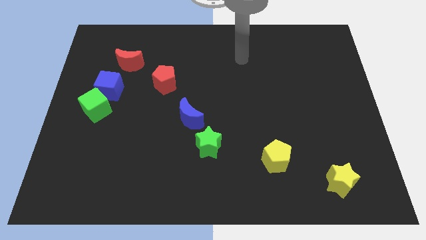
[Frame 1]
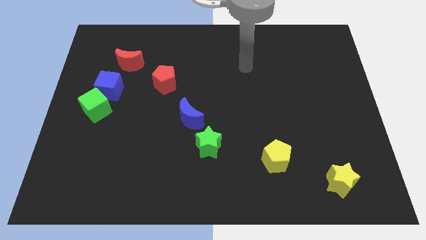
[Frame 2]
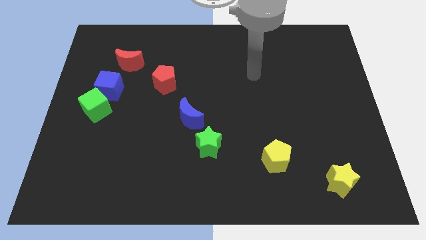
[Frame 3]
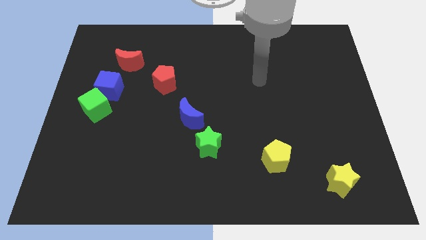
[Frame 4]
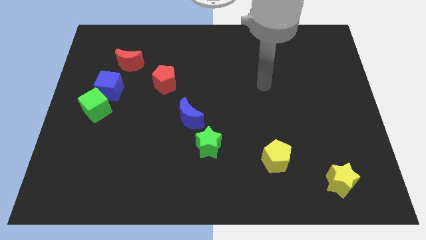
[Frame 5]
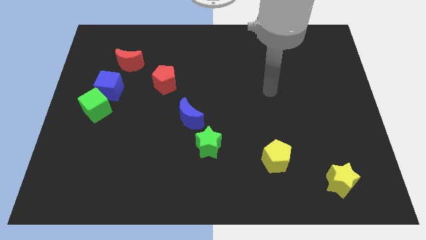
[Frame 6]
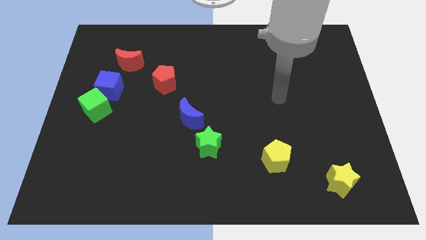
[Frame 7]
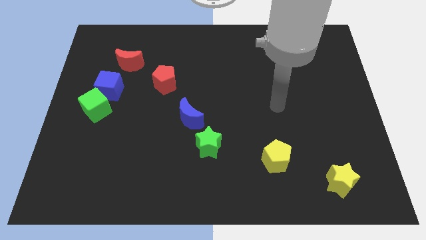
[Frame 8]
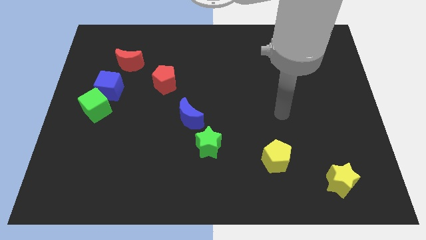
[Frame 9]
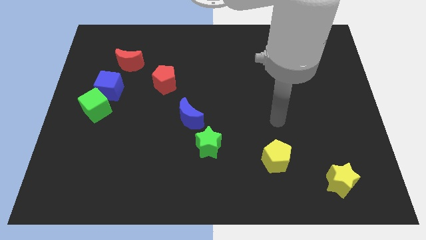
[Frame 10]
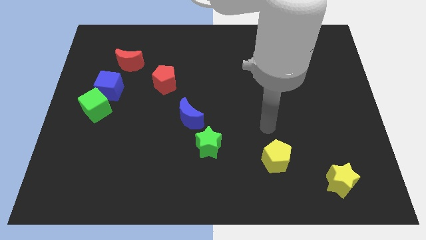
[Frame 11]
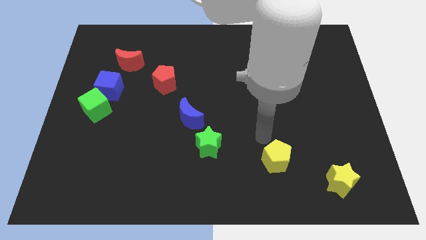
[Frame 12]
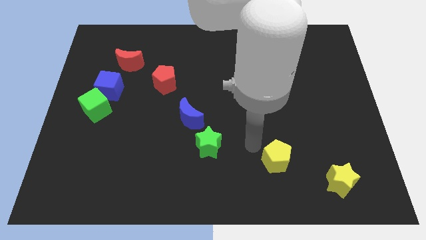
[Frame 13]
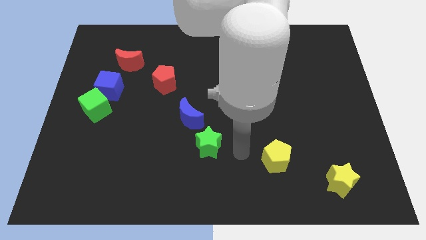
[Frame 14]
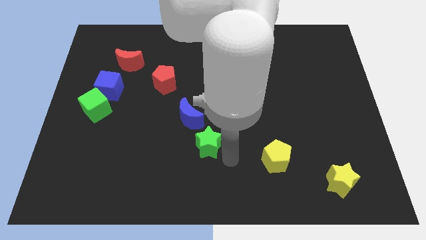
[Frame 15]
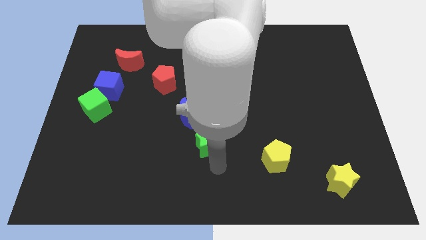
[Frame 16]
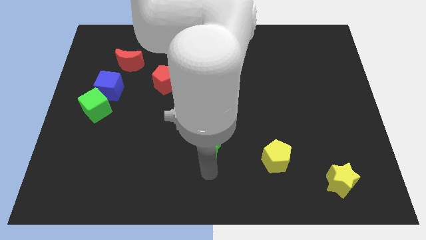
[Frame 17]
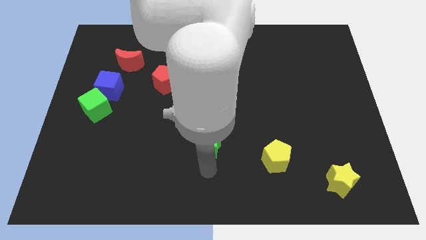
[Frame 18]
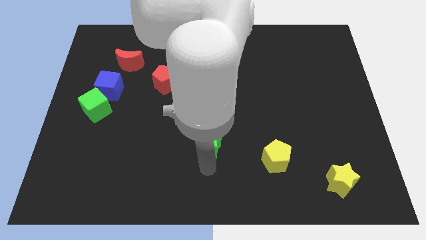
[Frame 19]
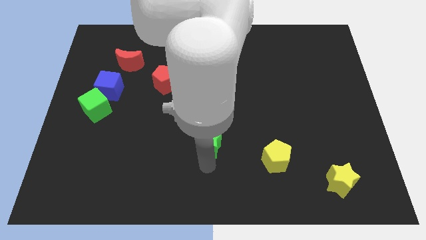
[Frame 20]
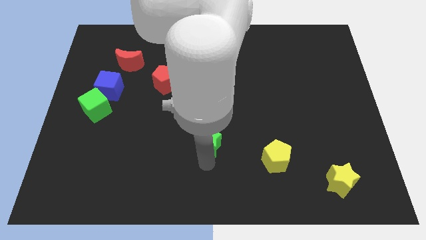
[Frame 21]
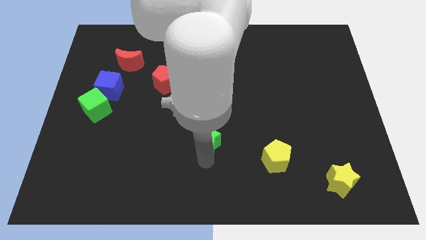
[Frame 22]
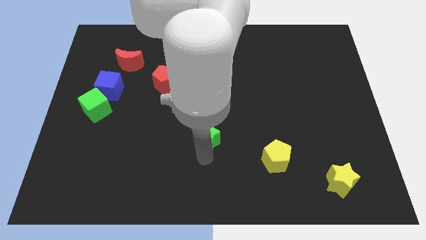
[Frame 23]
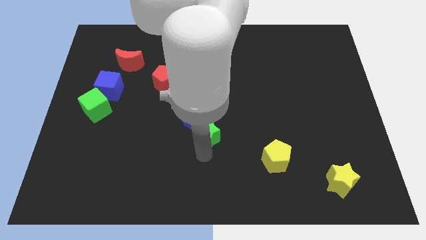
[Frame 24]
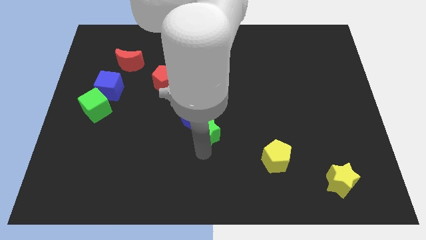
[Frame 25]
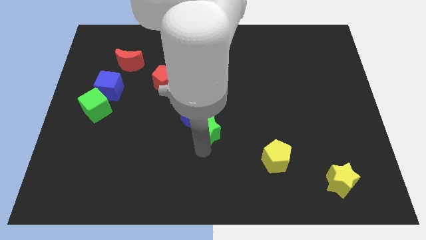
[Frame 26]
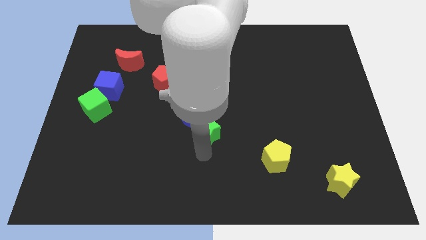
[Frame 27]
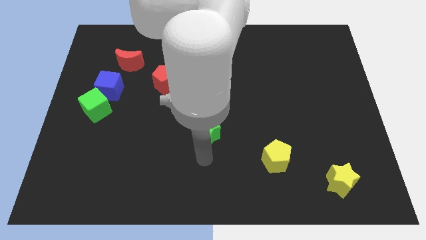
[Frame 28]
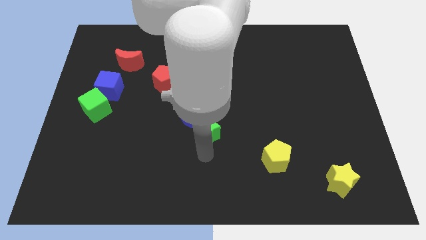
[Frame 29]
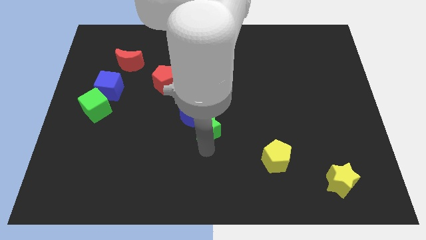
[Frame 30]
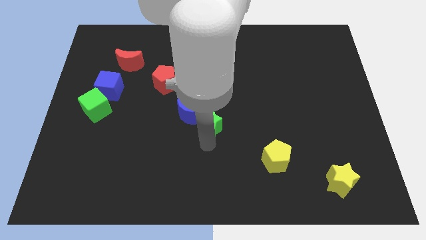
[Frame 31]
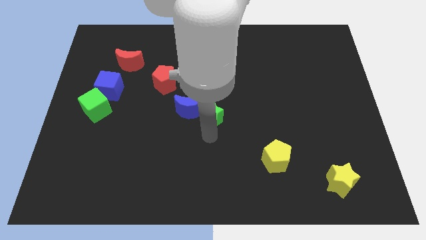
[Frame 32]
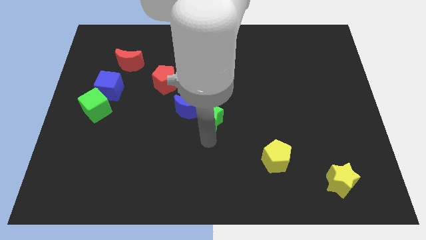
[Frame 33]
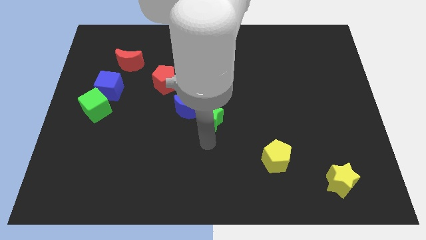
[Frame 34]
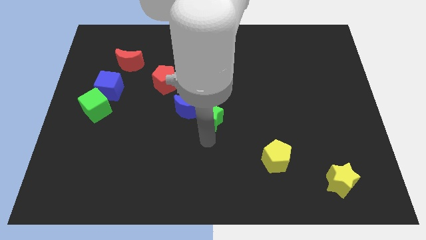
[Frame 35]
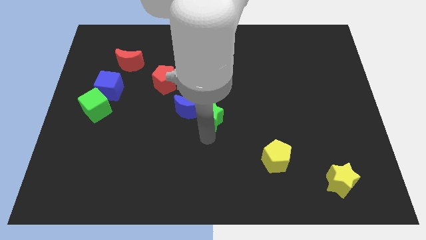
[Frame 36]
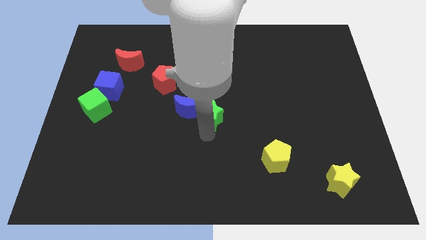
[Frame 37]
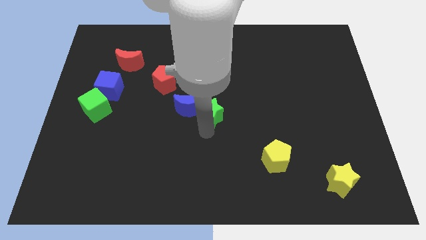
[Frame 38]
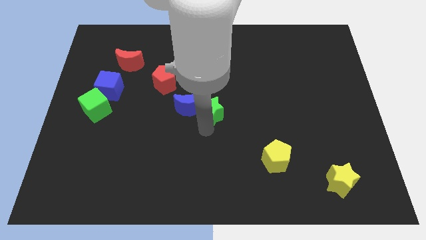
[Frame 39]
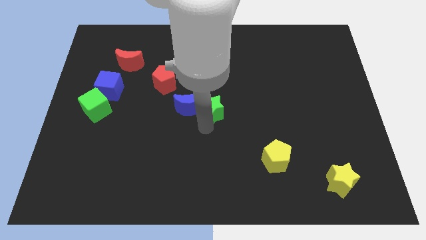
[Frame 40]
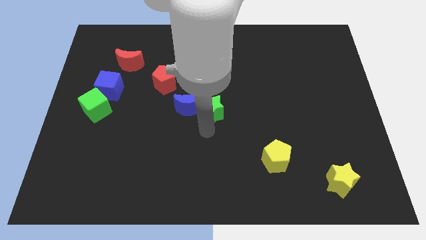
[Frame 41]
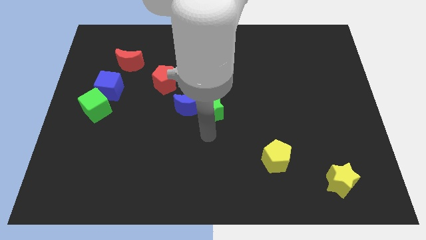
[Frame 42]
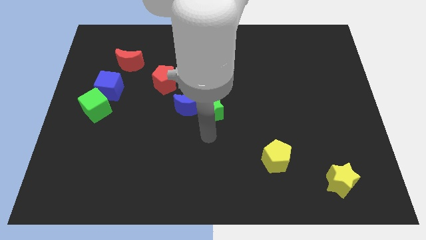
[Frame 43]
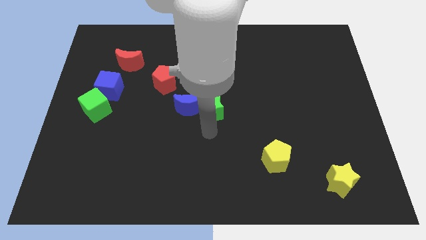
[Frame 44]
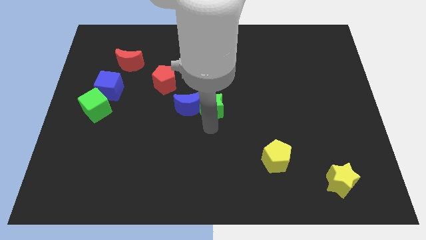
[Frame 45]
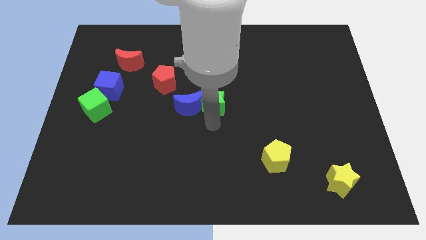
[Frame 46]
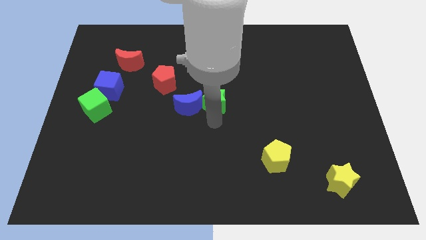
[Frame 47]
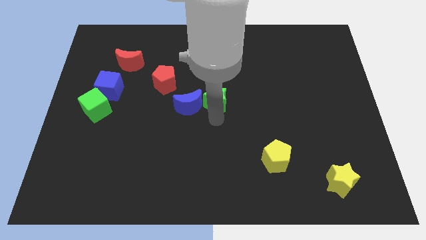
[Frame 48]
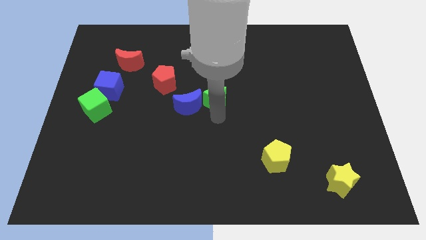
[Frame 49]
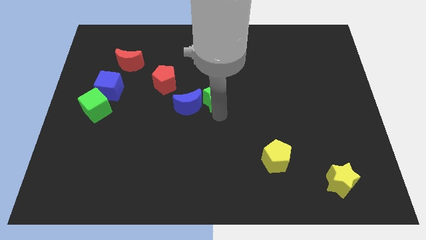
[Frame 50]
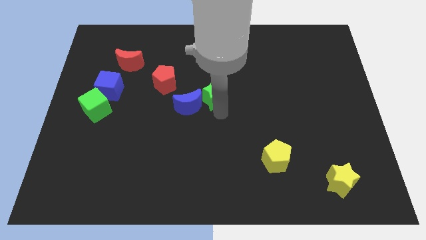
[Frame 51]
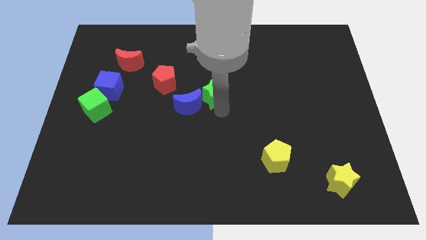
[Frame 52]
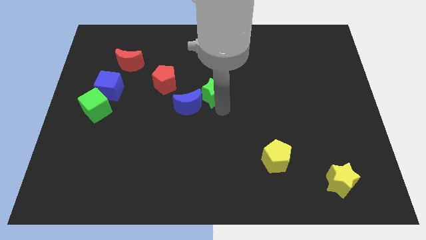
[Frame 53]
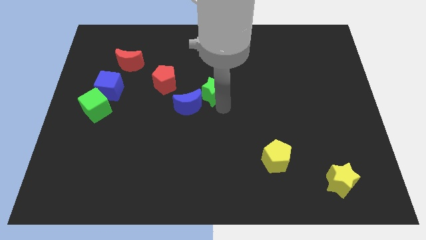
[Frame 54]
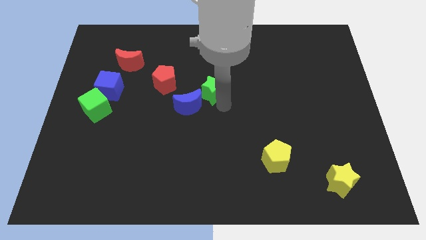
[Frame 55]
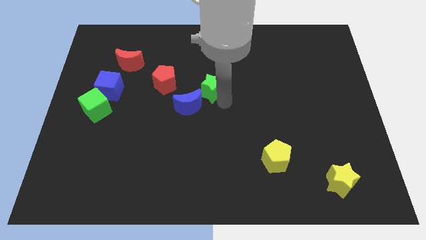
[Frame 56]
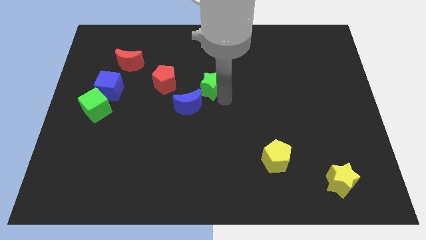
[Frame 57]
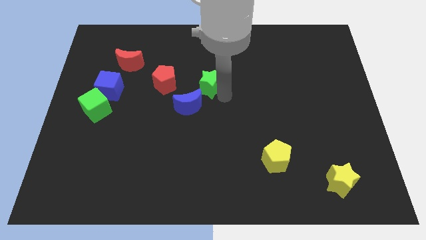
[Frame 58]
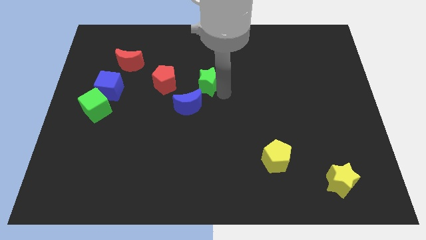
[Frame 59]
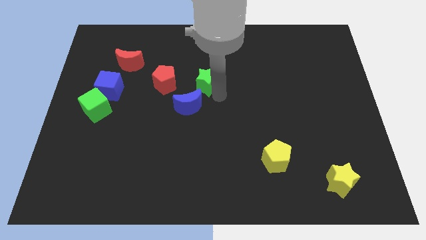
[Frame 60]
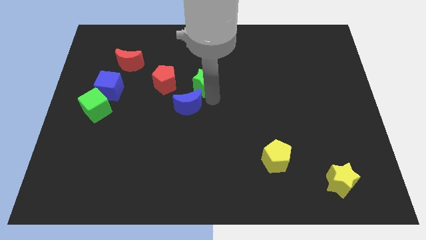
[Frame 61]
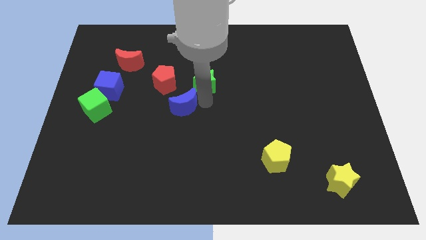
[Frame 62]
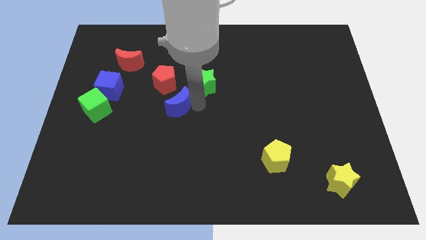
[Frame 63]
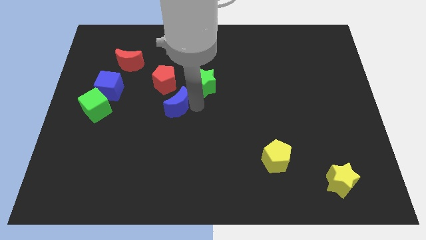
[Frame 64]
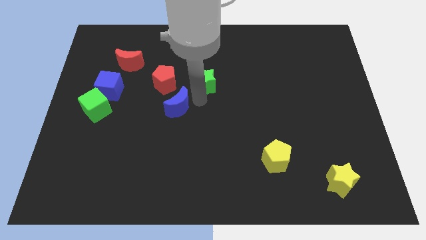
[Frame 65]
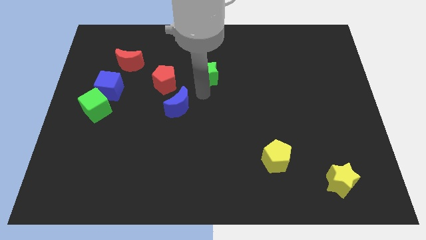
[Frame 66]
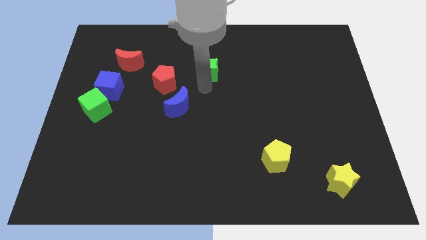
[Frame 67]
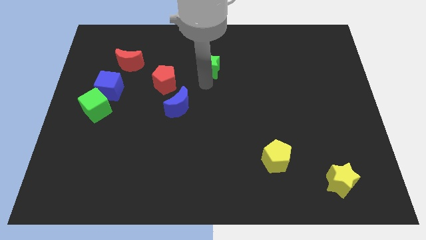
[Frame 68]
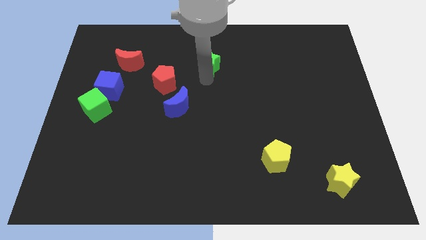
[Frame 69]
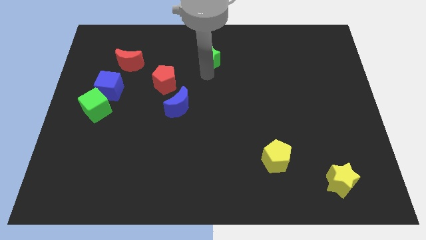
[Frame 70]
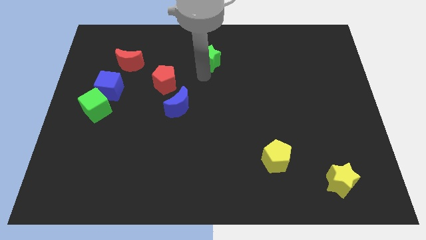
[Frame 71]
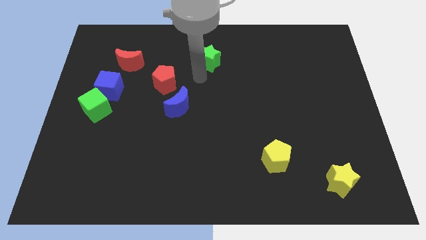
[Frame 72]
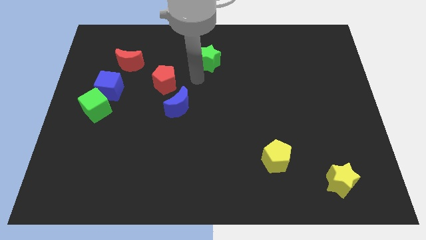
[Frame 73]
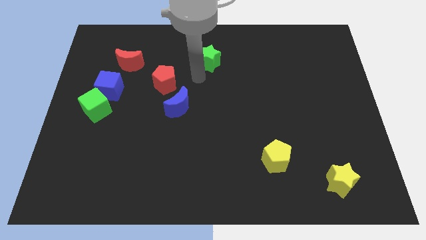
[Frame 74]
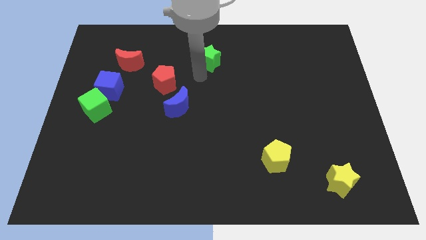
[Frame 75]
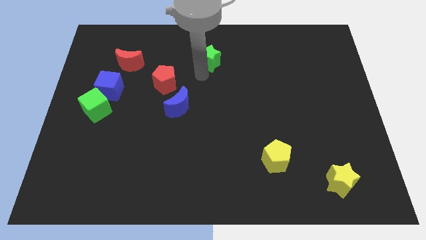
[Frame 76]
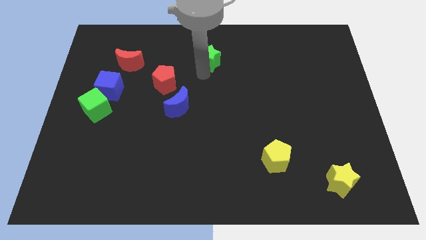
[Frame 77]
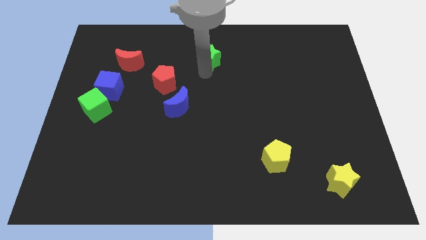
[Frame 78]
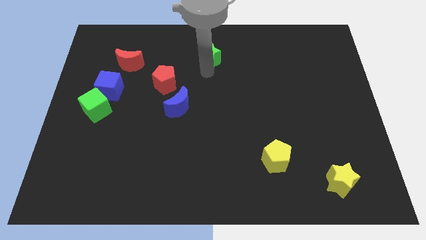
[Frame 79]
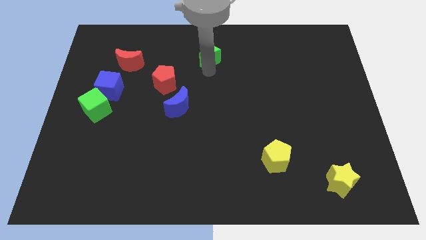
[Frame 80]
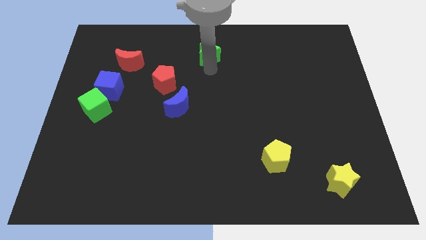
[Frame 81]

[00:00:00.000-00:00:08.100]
slide the green star to the top
